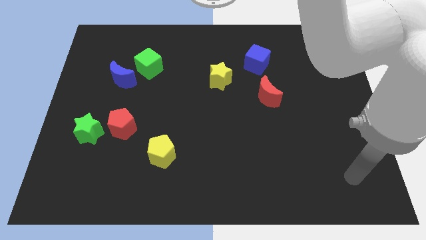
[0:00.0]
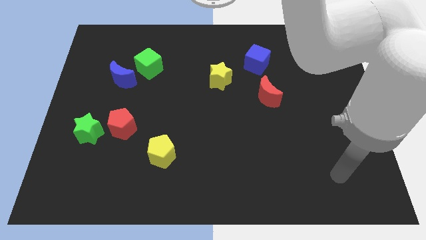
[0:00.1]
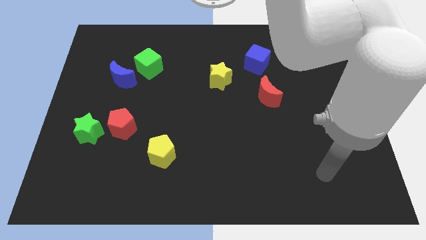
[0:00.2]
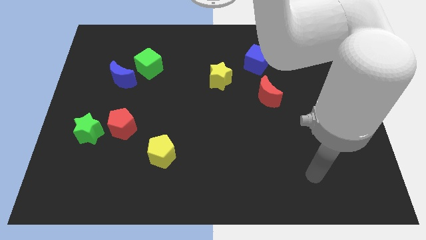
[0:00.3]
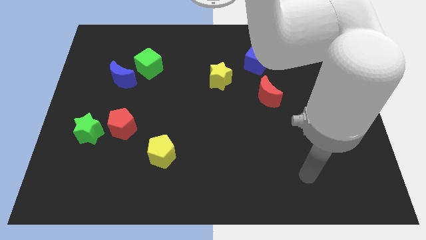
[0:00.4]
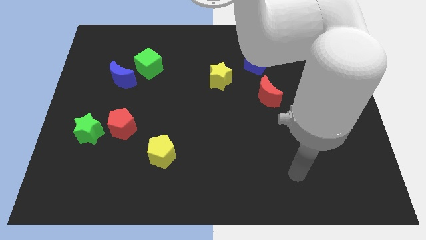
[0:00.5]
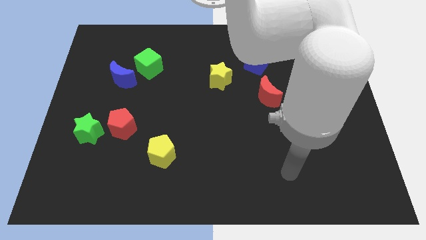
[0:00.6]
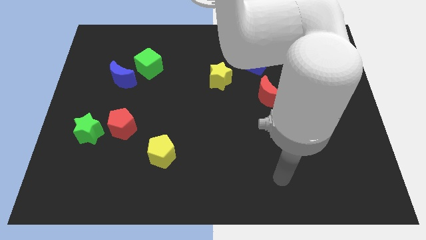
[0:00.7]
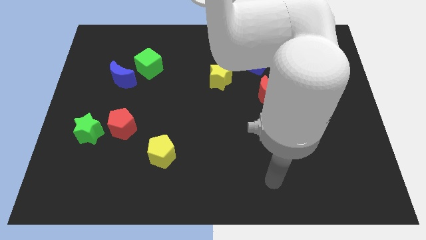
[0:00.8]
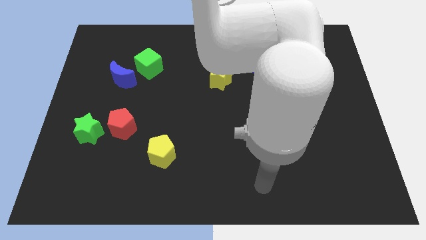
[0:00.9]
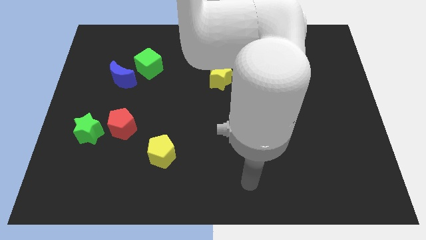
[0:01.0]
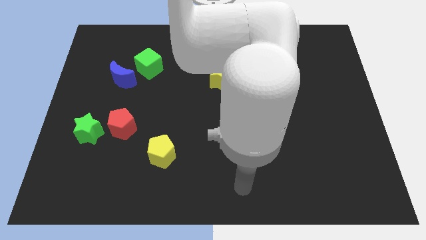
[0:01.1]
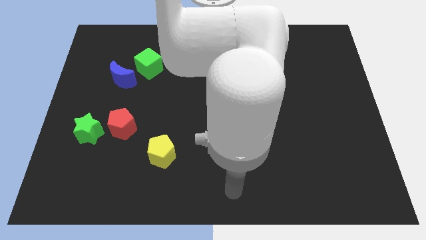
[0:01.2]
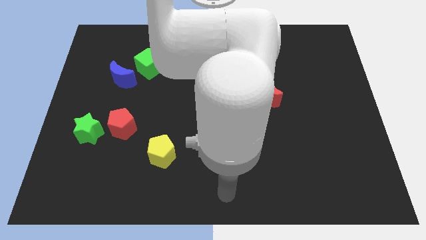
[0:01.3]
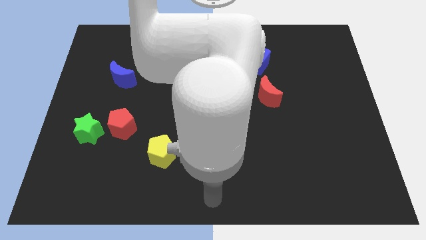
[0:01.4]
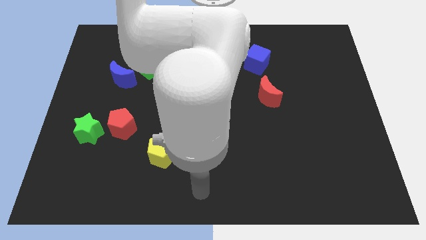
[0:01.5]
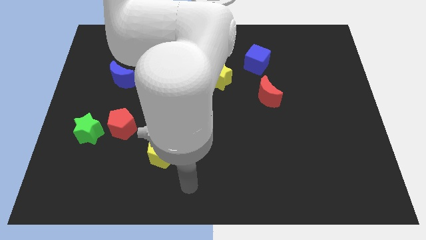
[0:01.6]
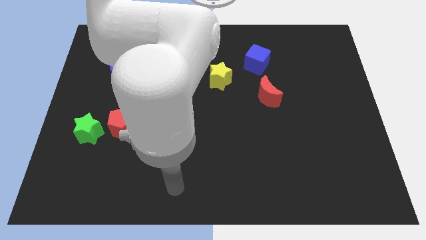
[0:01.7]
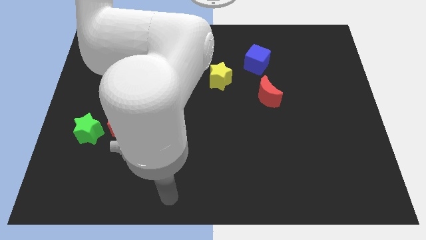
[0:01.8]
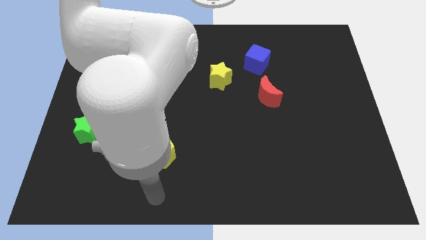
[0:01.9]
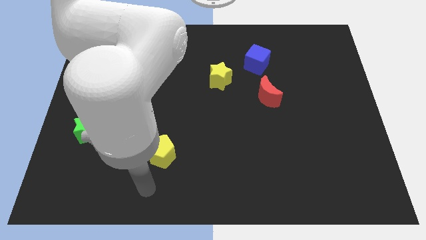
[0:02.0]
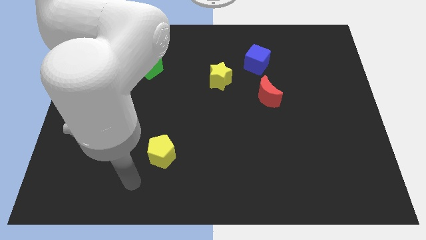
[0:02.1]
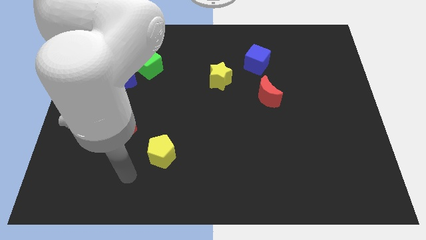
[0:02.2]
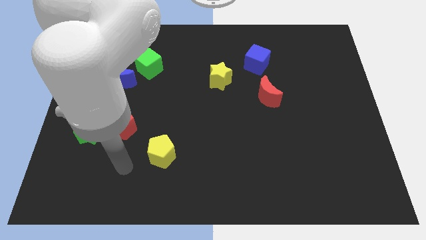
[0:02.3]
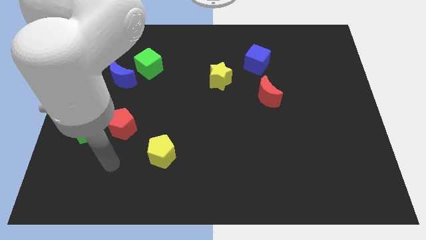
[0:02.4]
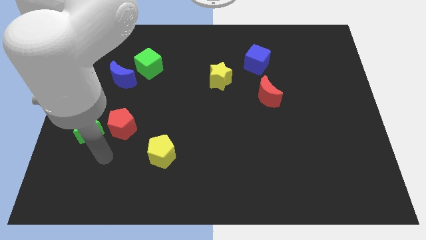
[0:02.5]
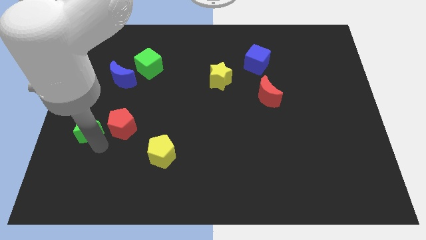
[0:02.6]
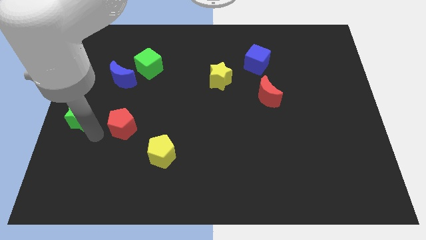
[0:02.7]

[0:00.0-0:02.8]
separate the red pentagon from the green star

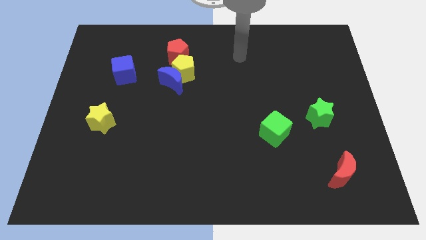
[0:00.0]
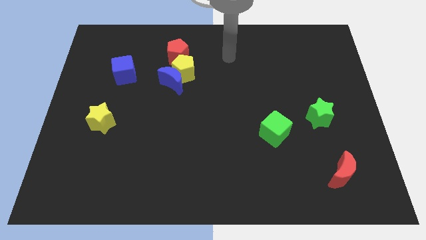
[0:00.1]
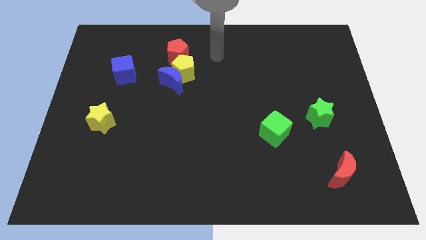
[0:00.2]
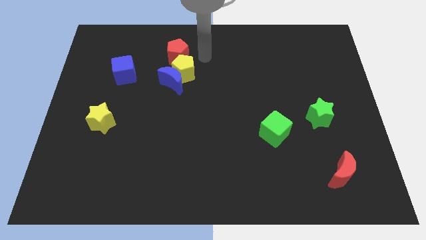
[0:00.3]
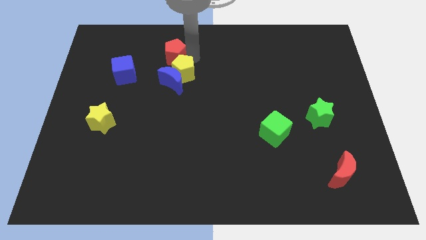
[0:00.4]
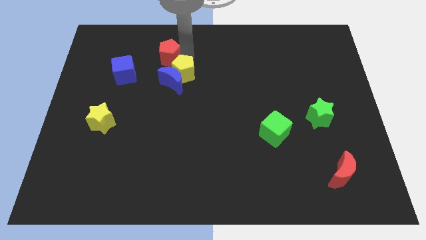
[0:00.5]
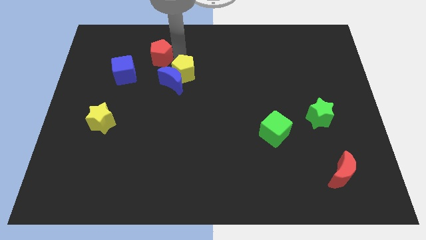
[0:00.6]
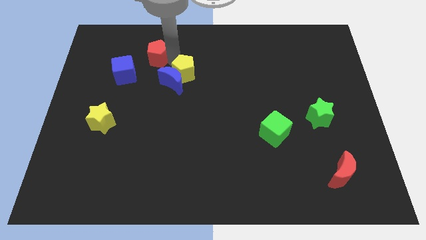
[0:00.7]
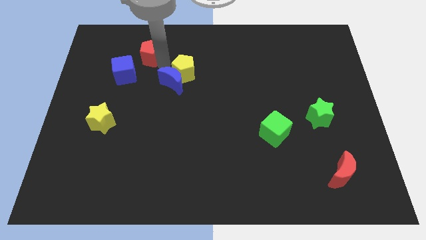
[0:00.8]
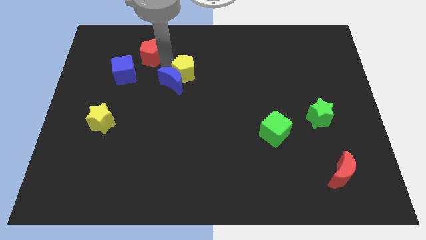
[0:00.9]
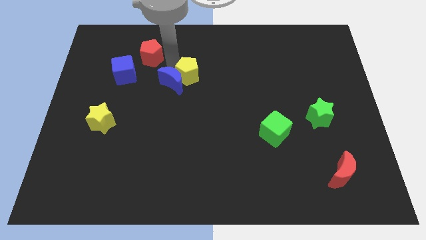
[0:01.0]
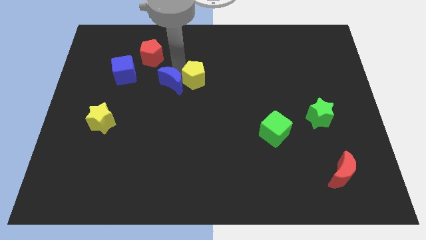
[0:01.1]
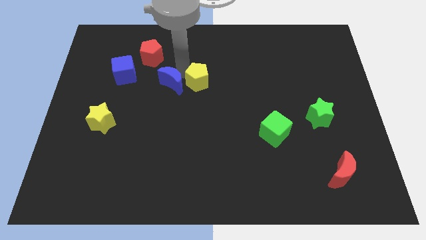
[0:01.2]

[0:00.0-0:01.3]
pull the yellow pentagon apart from the blue moon and red pentagon

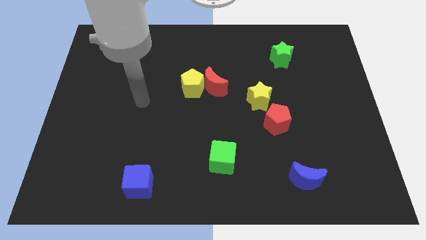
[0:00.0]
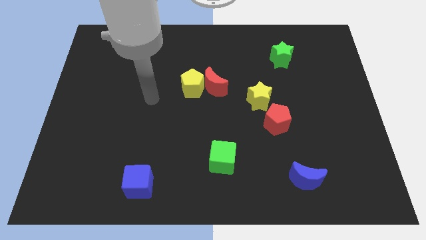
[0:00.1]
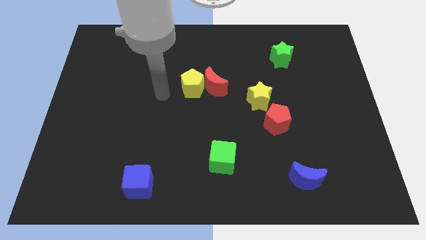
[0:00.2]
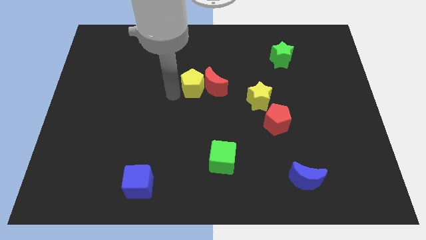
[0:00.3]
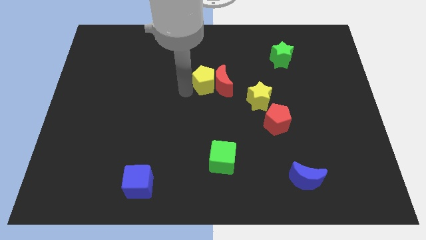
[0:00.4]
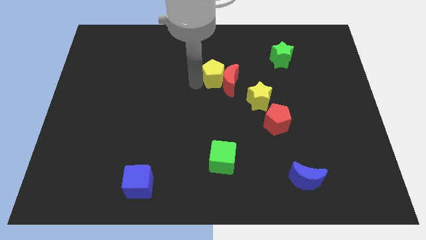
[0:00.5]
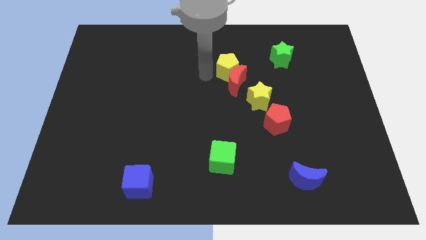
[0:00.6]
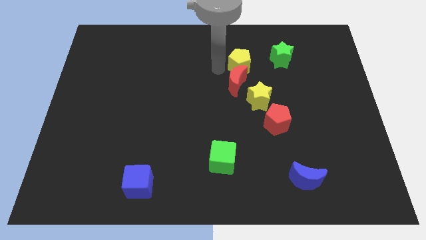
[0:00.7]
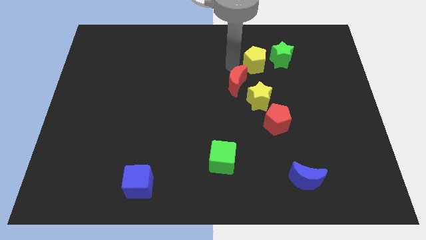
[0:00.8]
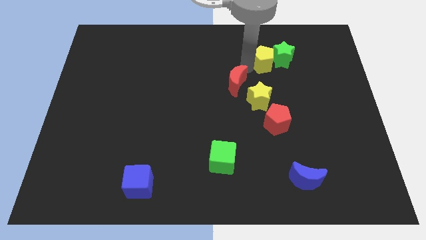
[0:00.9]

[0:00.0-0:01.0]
move the red moon away from the yellow pentagon

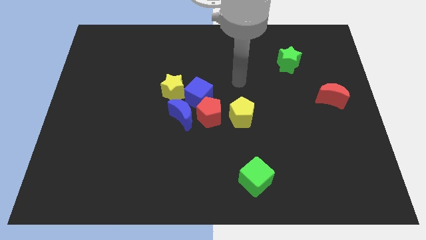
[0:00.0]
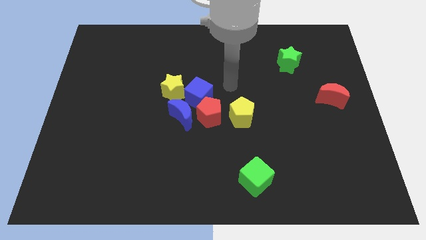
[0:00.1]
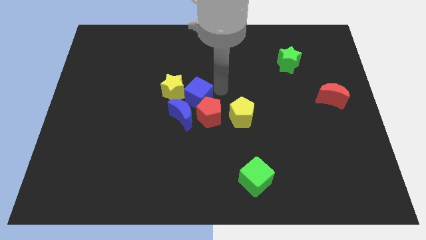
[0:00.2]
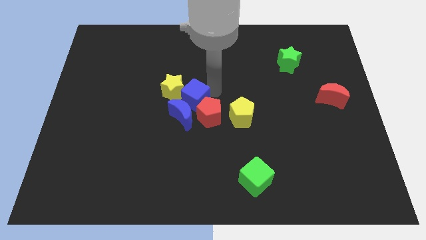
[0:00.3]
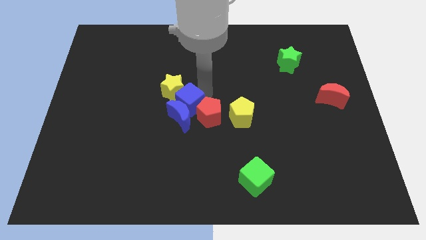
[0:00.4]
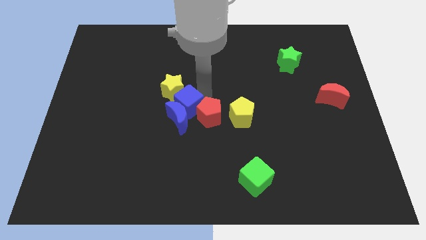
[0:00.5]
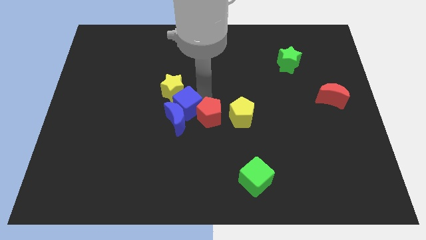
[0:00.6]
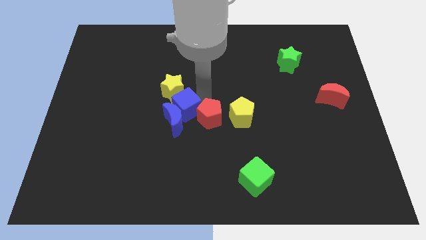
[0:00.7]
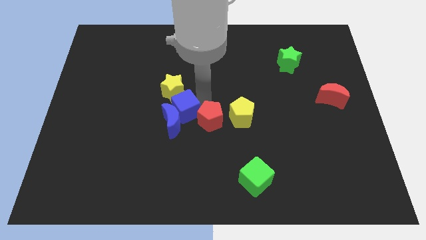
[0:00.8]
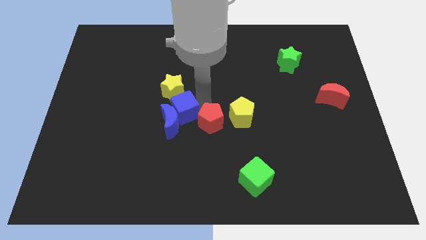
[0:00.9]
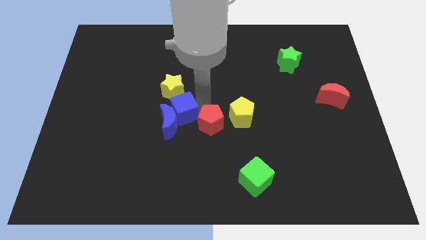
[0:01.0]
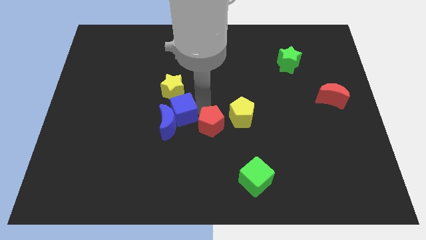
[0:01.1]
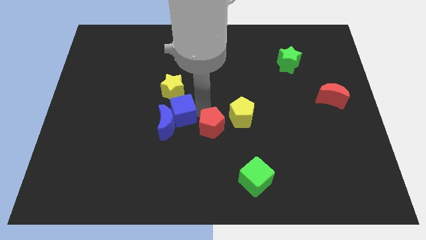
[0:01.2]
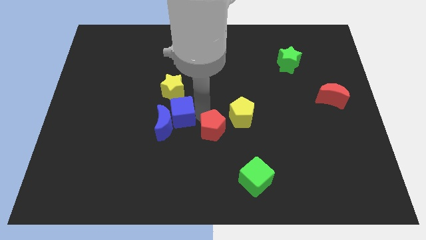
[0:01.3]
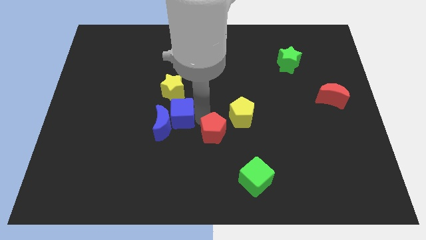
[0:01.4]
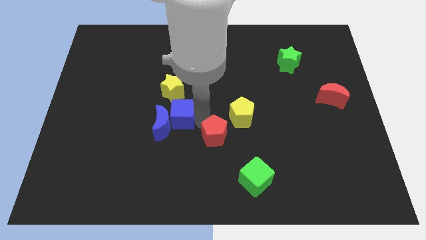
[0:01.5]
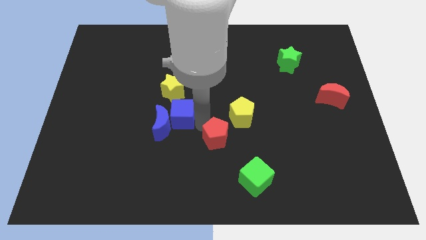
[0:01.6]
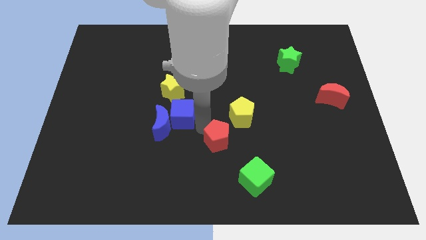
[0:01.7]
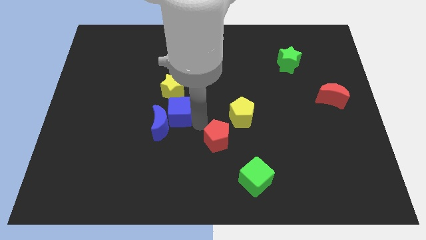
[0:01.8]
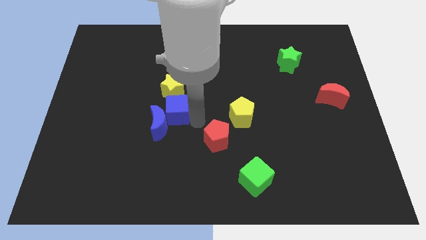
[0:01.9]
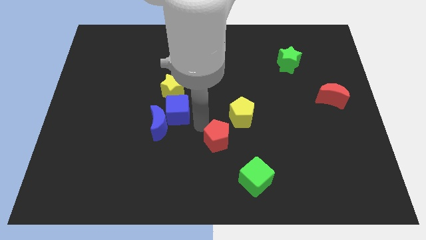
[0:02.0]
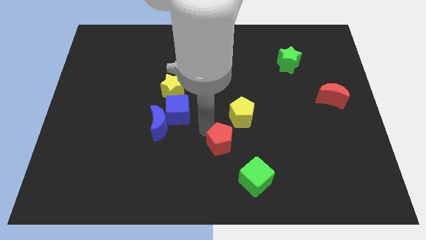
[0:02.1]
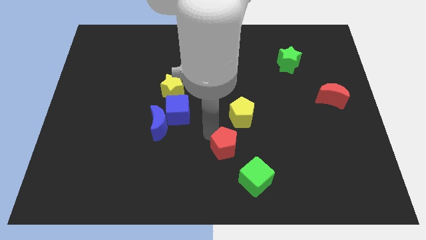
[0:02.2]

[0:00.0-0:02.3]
separate the red pentagon from the group

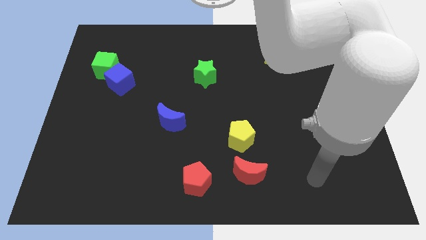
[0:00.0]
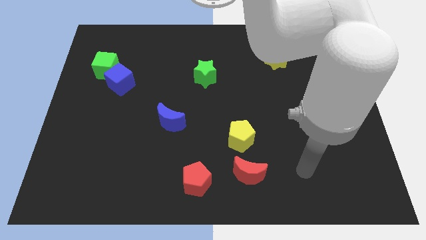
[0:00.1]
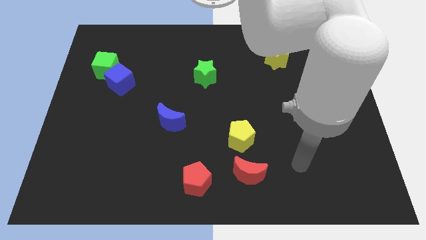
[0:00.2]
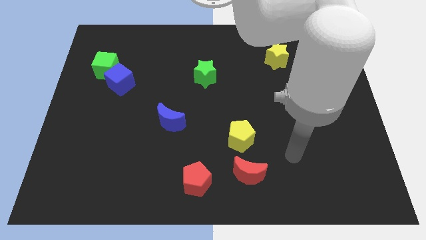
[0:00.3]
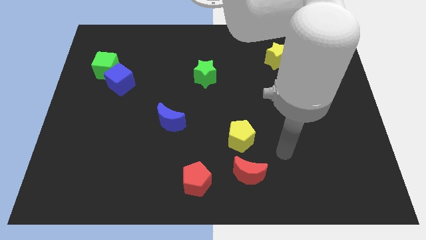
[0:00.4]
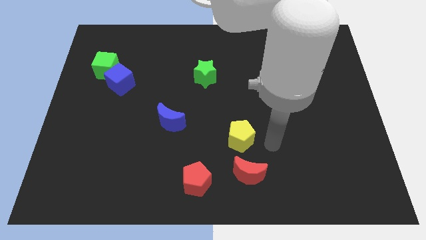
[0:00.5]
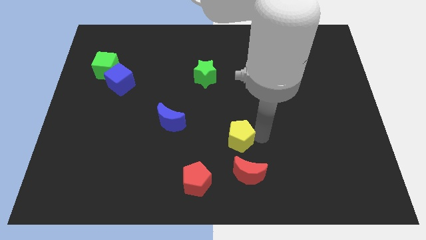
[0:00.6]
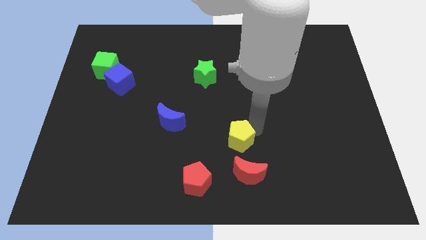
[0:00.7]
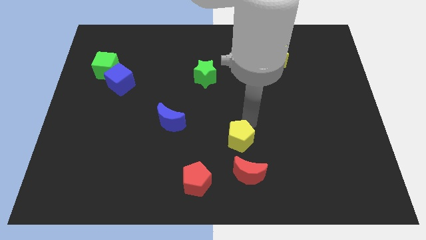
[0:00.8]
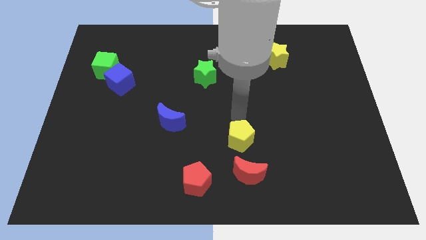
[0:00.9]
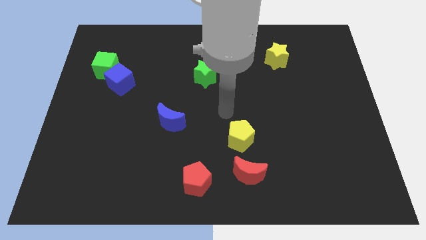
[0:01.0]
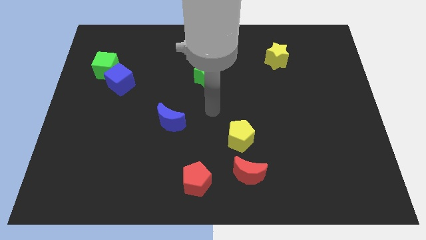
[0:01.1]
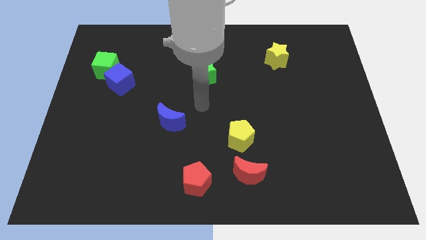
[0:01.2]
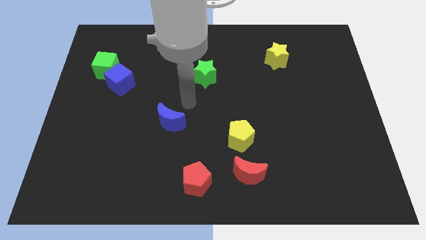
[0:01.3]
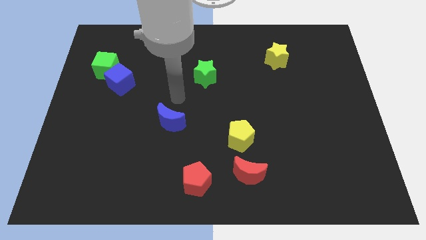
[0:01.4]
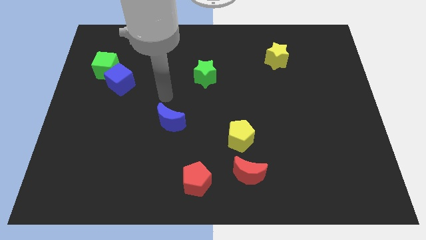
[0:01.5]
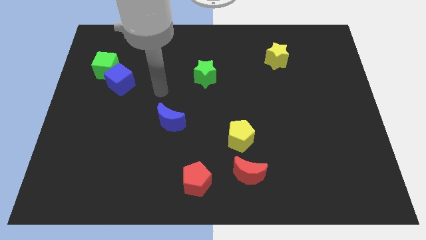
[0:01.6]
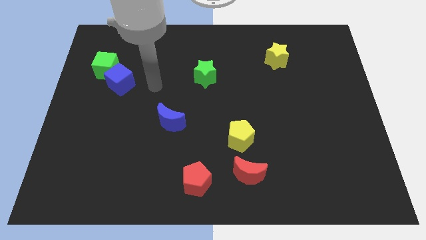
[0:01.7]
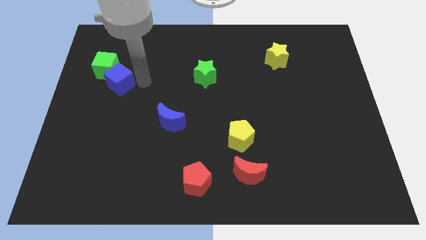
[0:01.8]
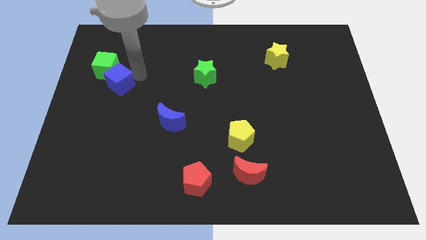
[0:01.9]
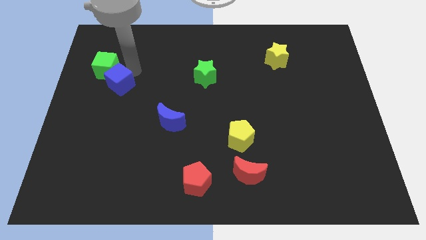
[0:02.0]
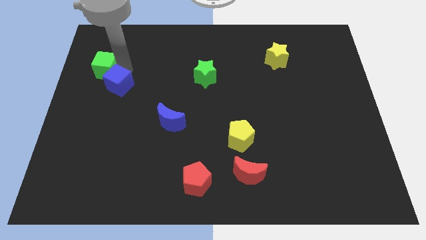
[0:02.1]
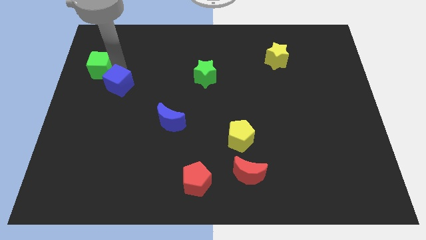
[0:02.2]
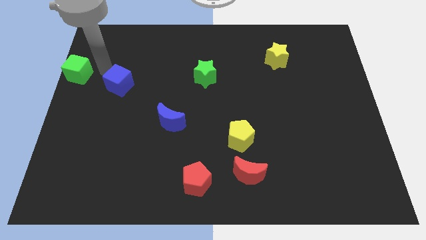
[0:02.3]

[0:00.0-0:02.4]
separate the blue cube from the green cube
